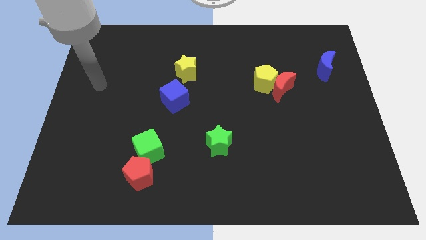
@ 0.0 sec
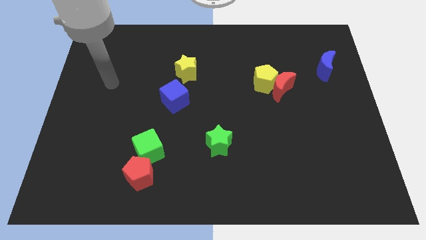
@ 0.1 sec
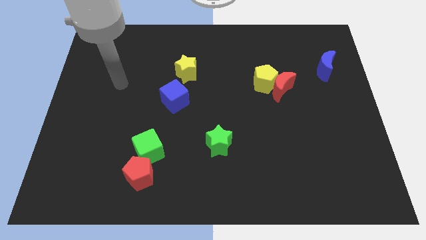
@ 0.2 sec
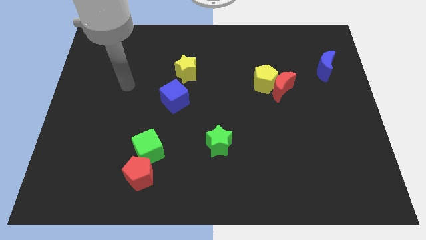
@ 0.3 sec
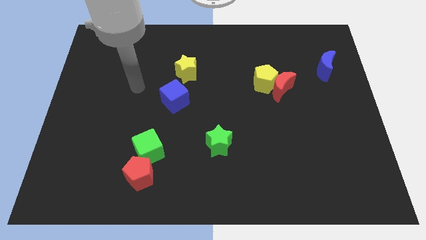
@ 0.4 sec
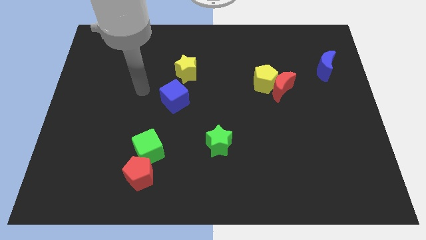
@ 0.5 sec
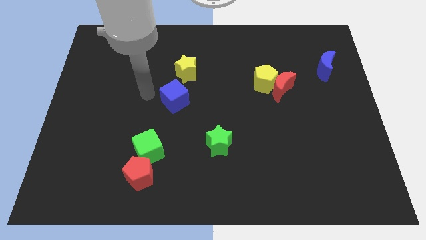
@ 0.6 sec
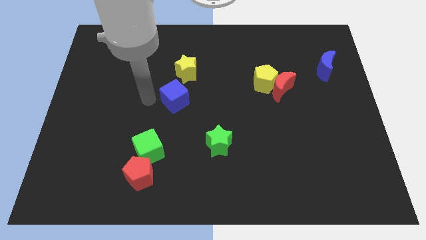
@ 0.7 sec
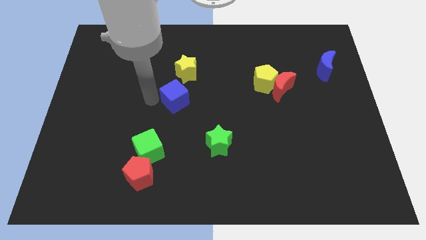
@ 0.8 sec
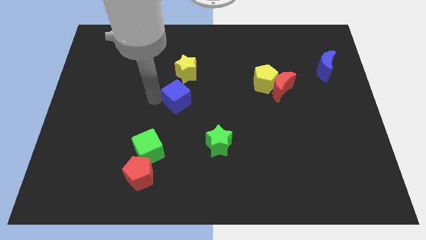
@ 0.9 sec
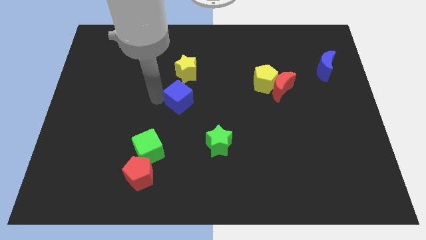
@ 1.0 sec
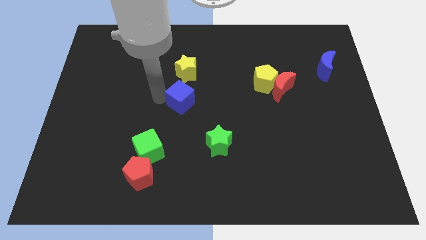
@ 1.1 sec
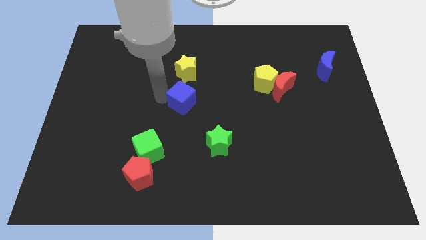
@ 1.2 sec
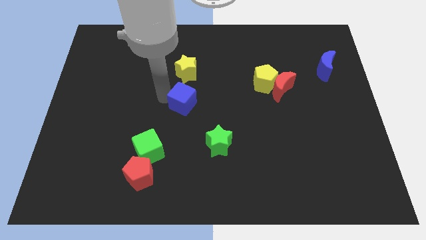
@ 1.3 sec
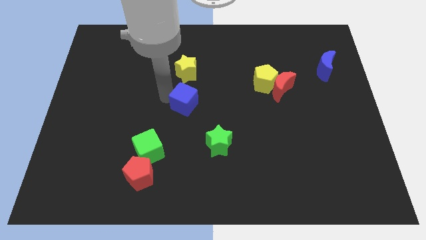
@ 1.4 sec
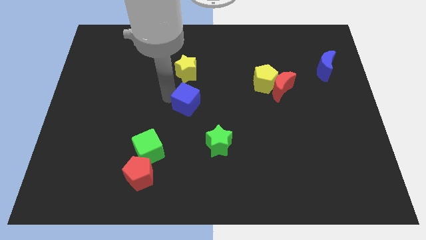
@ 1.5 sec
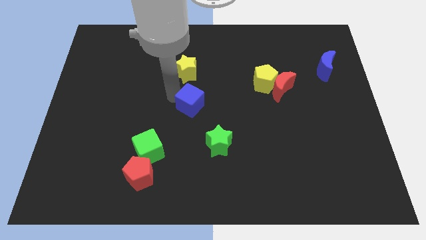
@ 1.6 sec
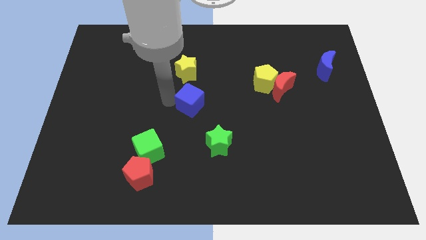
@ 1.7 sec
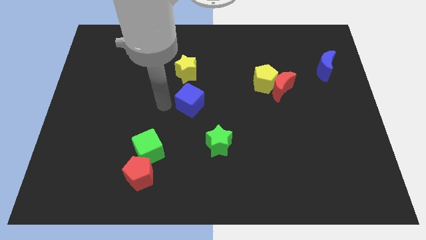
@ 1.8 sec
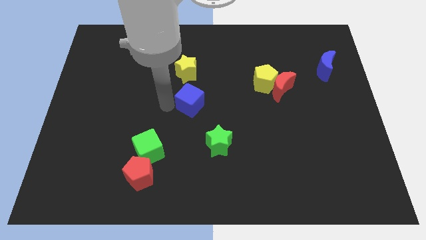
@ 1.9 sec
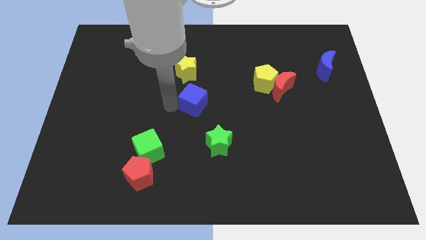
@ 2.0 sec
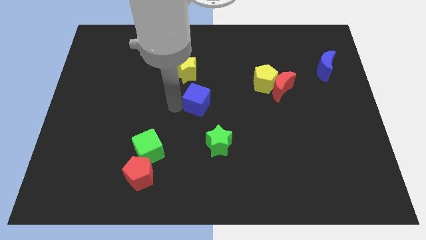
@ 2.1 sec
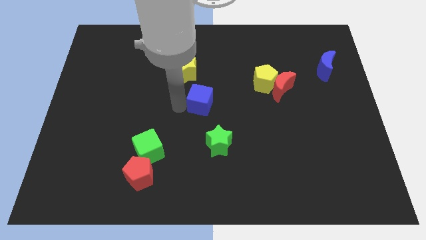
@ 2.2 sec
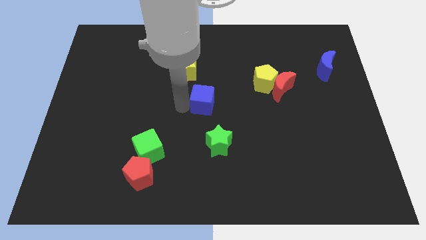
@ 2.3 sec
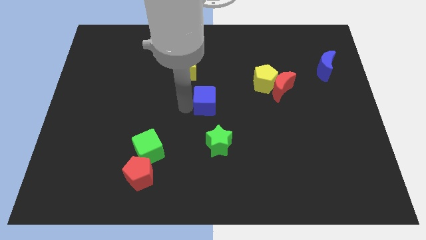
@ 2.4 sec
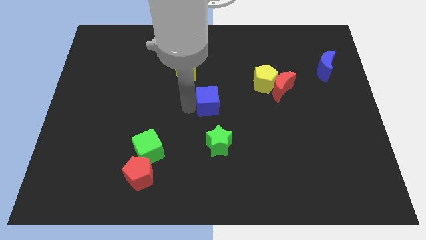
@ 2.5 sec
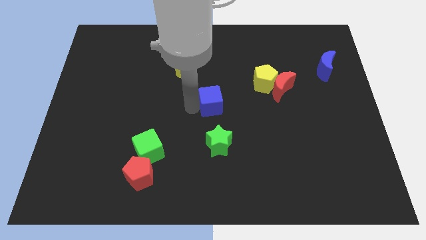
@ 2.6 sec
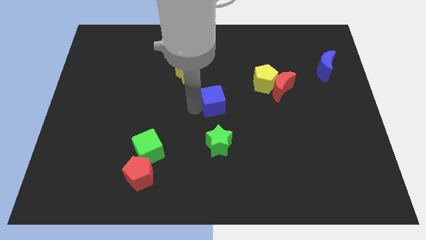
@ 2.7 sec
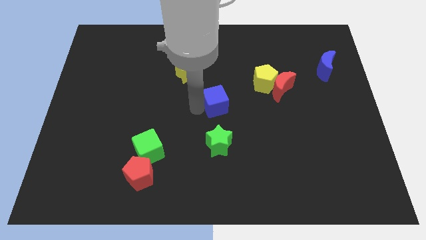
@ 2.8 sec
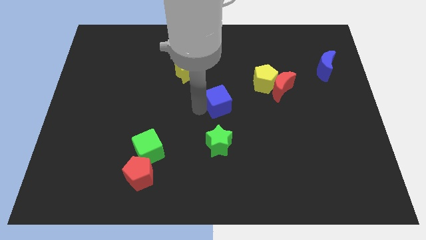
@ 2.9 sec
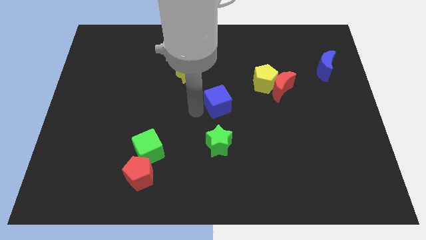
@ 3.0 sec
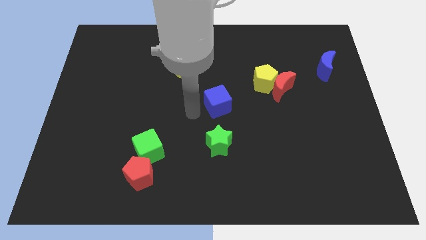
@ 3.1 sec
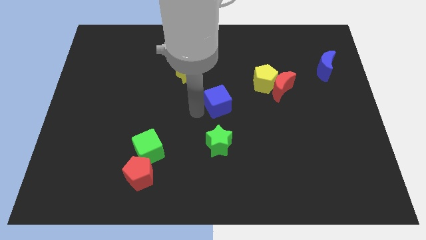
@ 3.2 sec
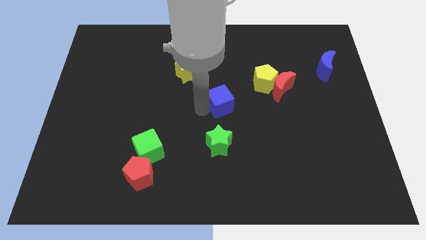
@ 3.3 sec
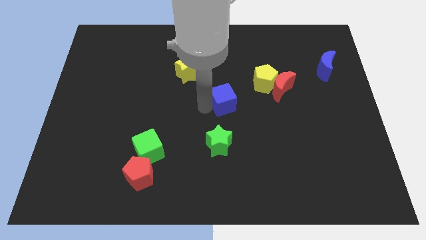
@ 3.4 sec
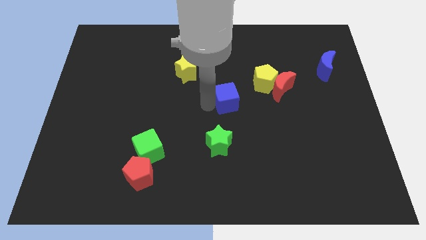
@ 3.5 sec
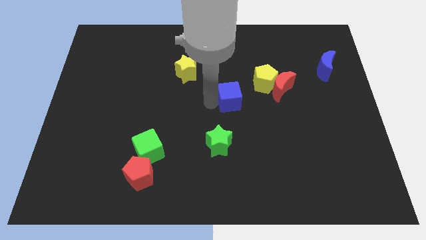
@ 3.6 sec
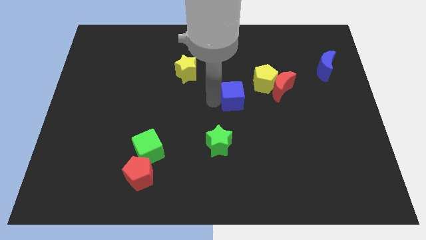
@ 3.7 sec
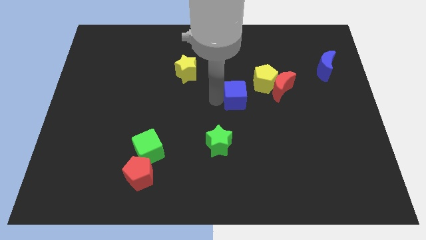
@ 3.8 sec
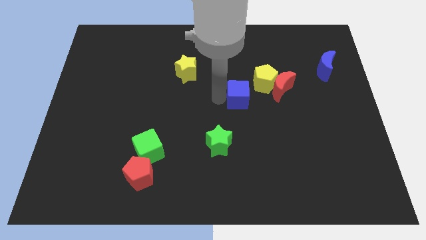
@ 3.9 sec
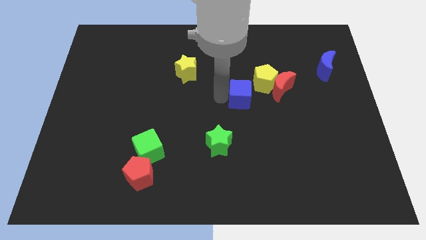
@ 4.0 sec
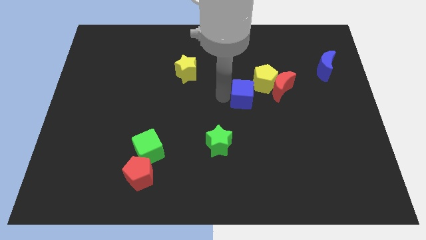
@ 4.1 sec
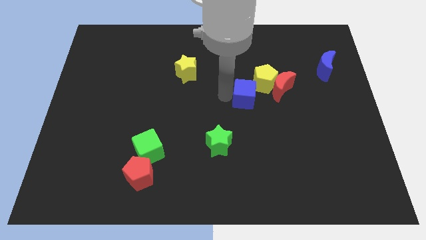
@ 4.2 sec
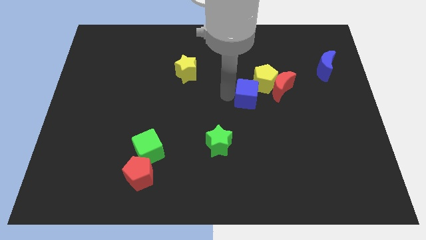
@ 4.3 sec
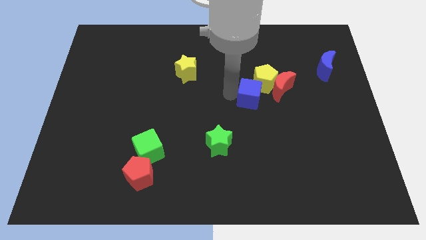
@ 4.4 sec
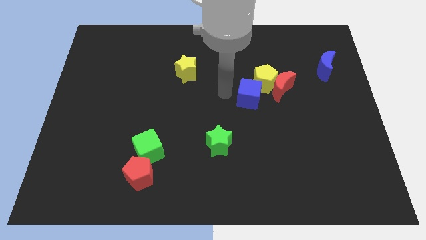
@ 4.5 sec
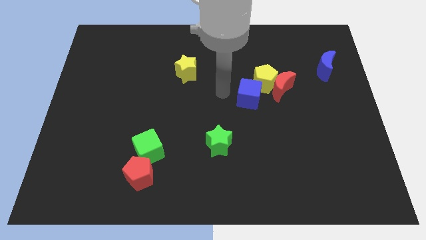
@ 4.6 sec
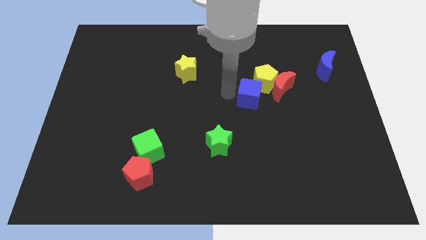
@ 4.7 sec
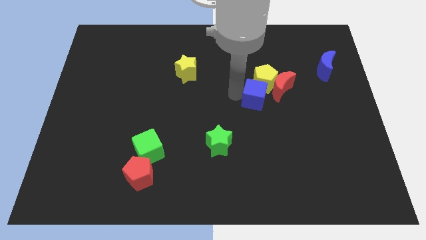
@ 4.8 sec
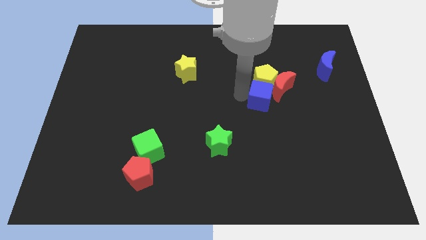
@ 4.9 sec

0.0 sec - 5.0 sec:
push the blue cube right

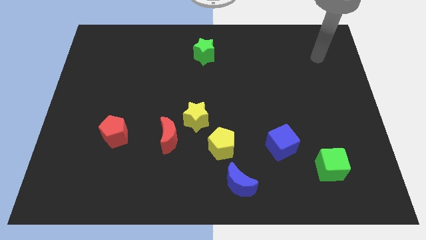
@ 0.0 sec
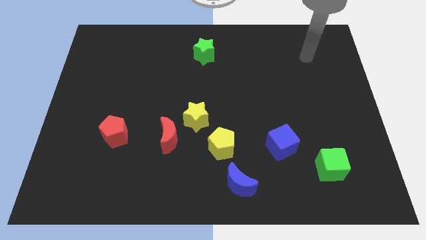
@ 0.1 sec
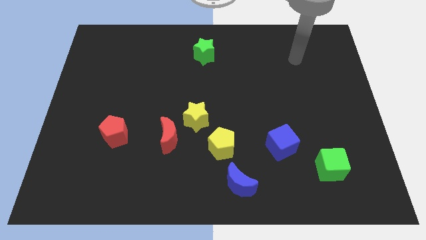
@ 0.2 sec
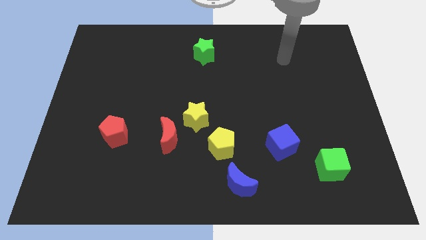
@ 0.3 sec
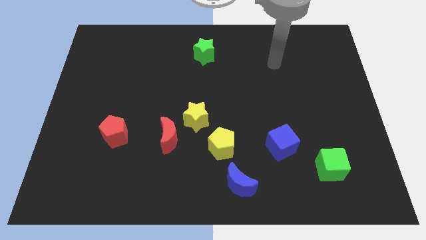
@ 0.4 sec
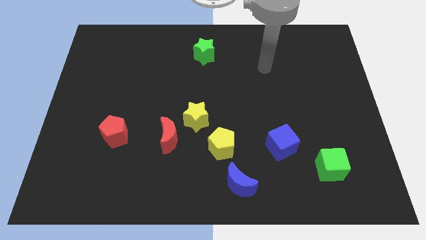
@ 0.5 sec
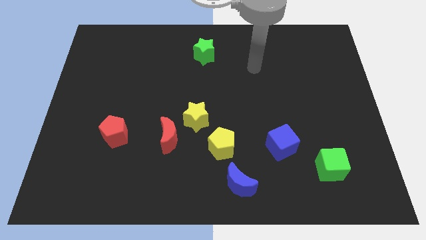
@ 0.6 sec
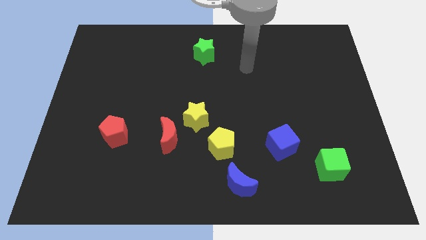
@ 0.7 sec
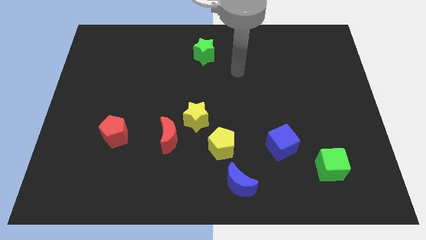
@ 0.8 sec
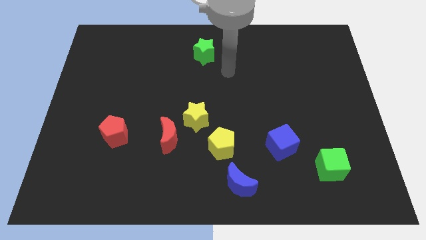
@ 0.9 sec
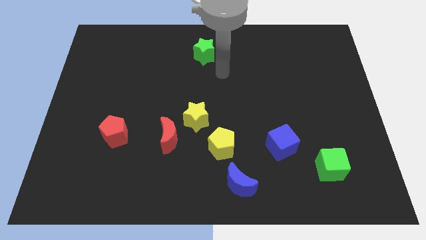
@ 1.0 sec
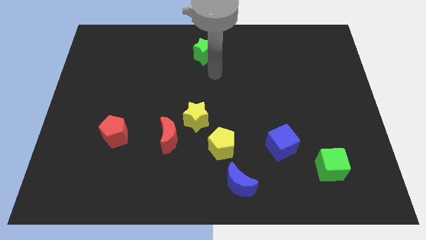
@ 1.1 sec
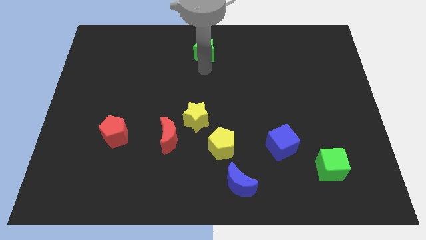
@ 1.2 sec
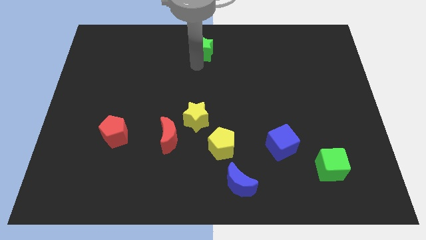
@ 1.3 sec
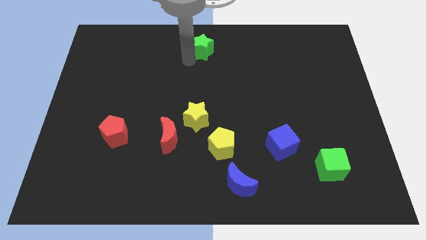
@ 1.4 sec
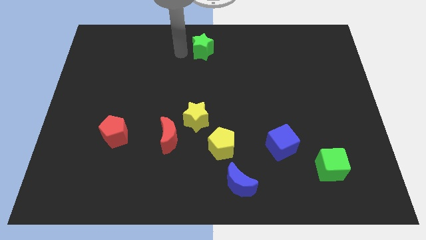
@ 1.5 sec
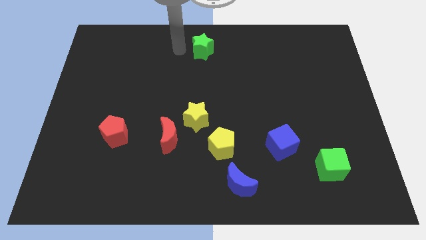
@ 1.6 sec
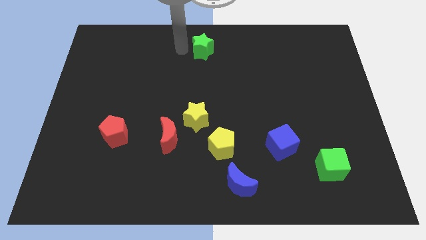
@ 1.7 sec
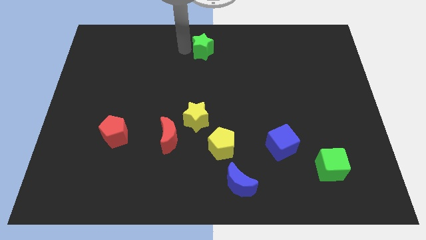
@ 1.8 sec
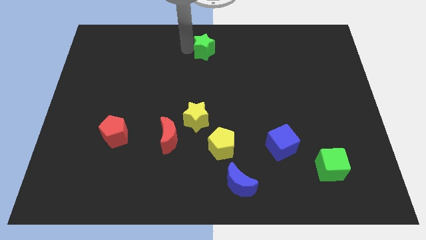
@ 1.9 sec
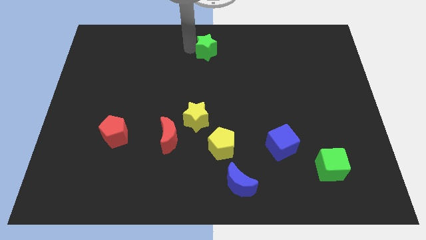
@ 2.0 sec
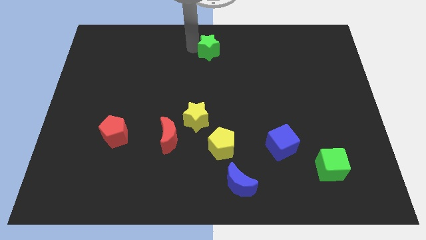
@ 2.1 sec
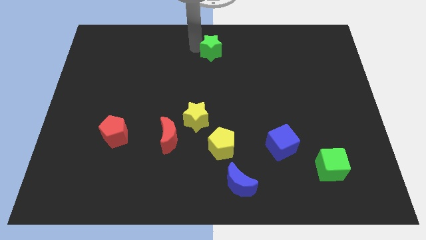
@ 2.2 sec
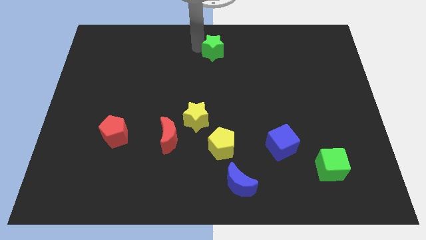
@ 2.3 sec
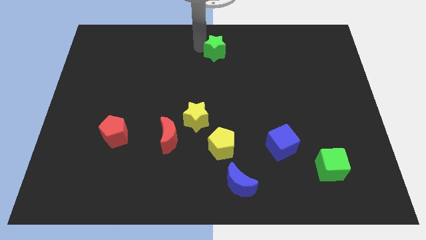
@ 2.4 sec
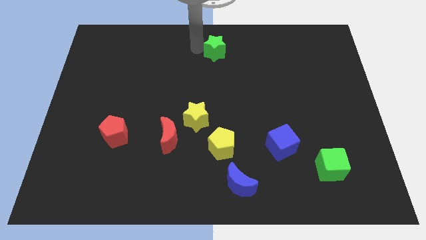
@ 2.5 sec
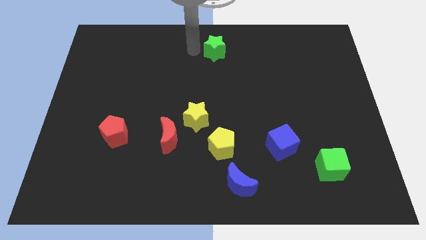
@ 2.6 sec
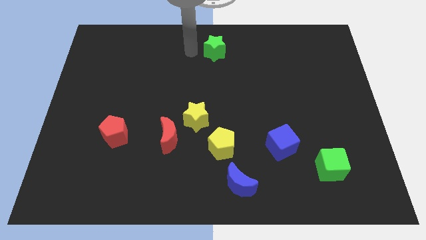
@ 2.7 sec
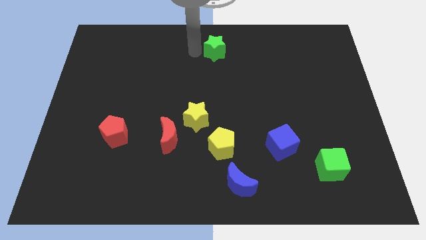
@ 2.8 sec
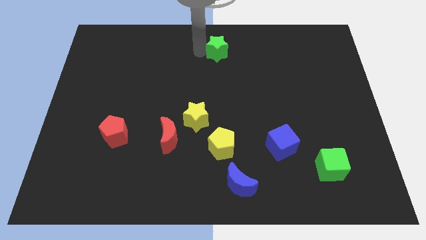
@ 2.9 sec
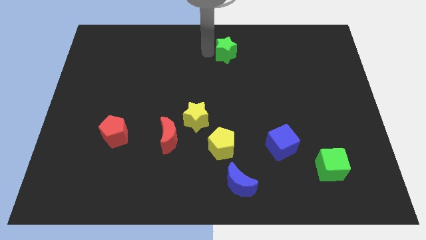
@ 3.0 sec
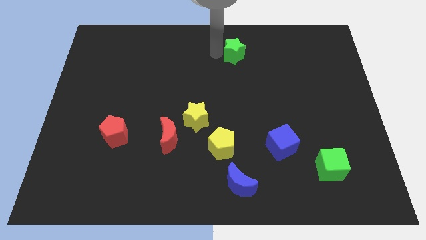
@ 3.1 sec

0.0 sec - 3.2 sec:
move the green star right a bit
